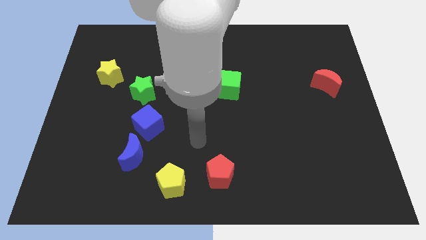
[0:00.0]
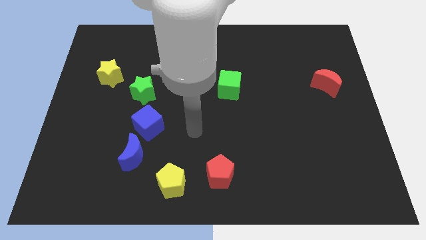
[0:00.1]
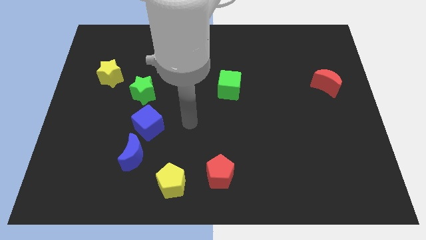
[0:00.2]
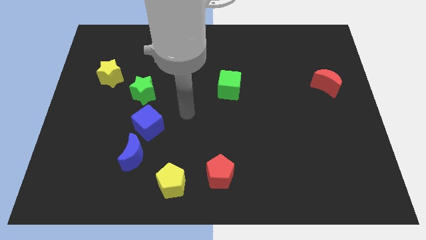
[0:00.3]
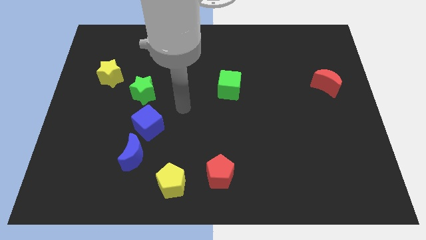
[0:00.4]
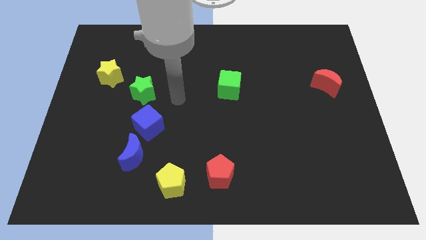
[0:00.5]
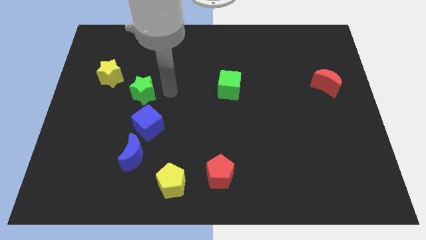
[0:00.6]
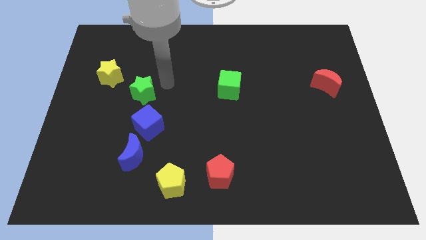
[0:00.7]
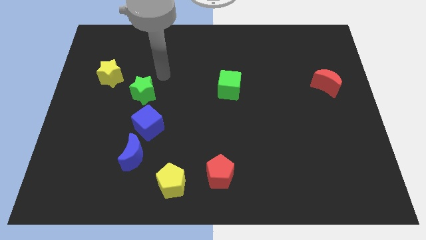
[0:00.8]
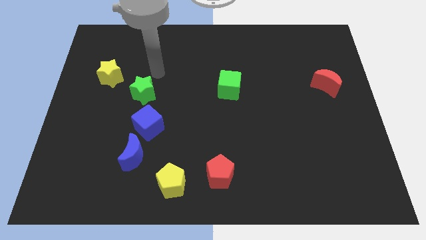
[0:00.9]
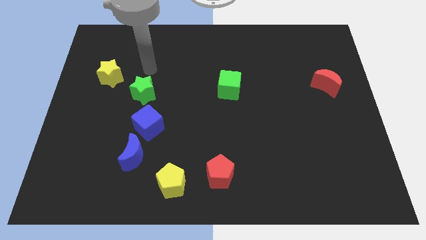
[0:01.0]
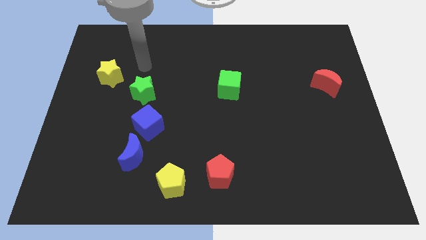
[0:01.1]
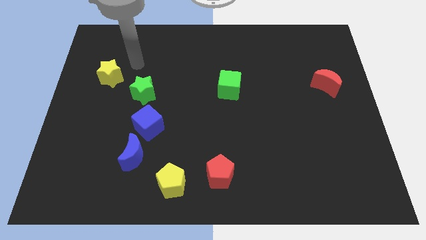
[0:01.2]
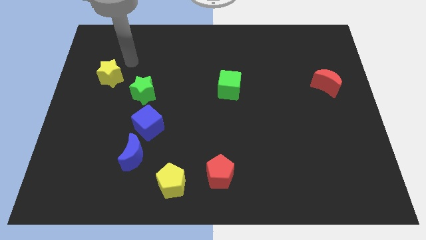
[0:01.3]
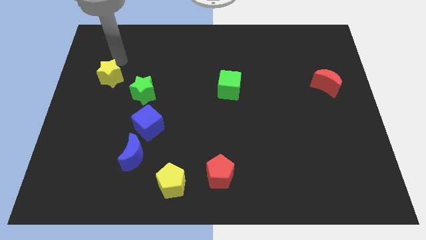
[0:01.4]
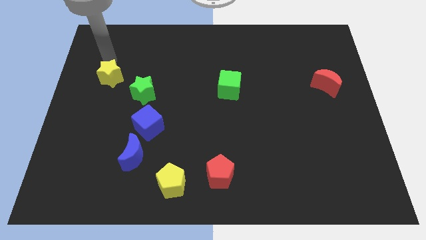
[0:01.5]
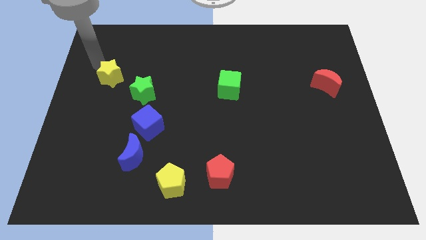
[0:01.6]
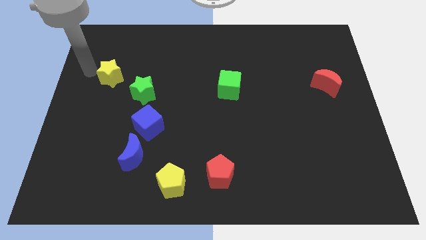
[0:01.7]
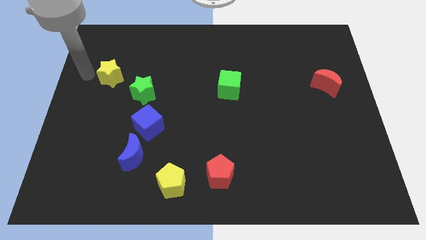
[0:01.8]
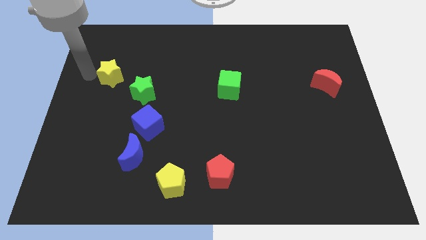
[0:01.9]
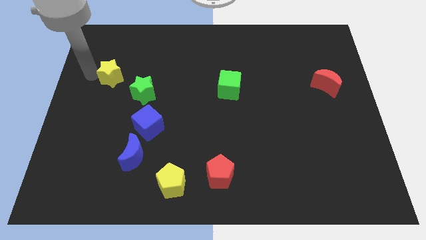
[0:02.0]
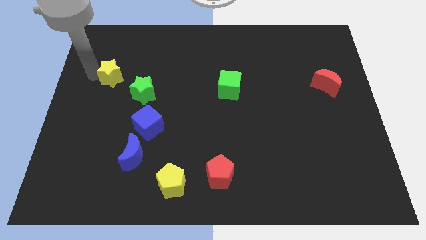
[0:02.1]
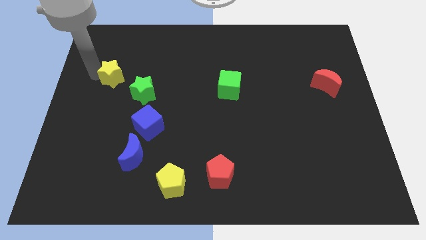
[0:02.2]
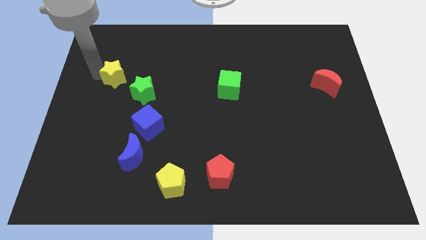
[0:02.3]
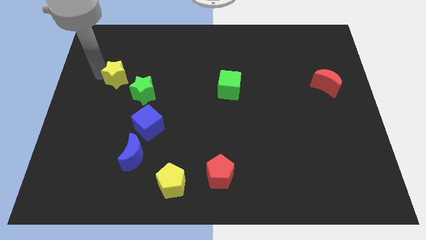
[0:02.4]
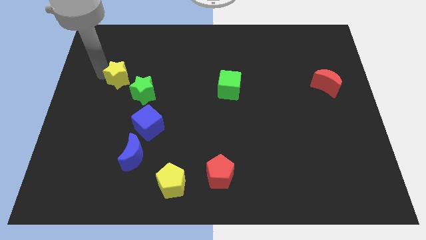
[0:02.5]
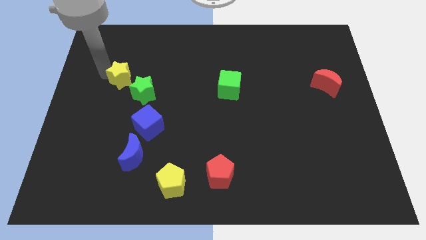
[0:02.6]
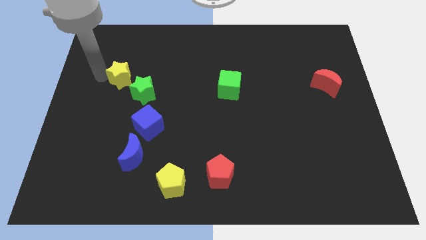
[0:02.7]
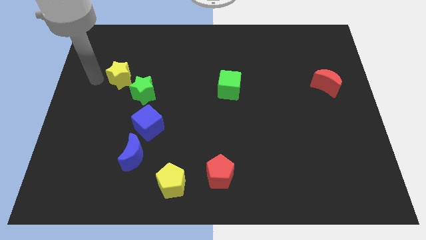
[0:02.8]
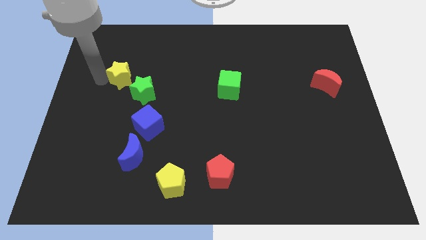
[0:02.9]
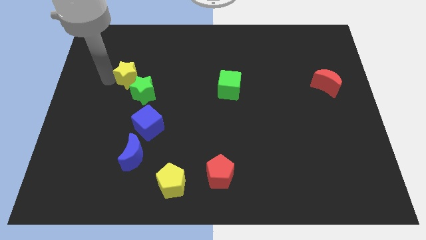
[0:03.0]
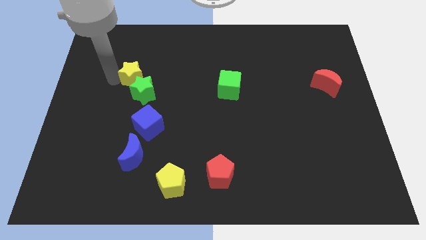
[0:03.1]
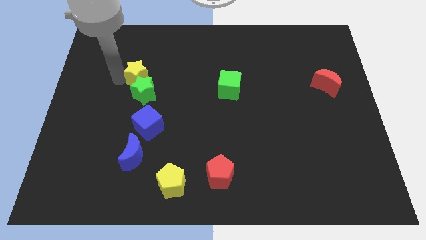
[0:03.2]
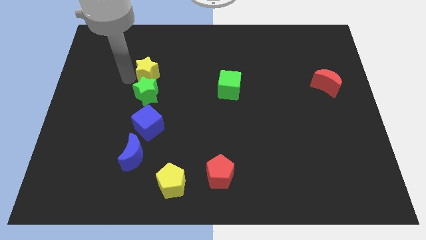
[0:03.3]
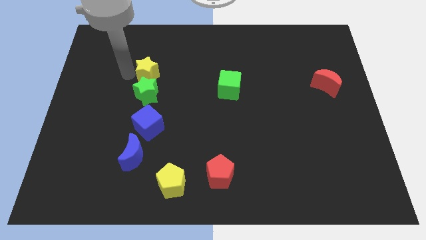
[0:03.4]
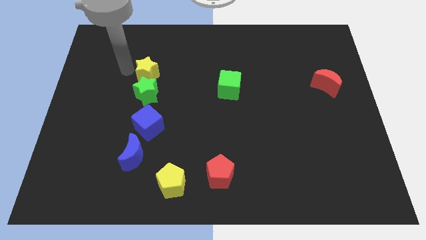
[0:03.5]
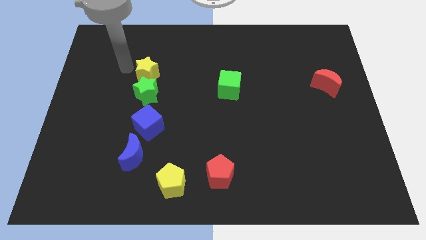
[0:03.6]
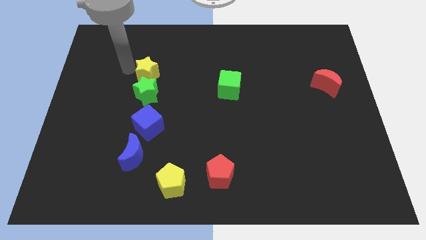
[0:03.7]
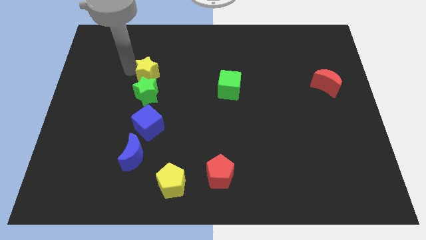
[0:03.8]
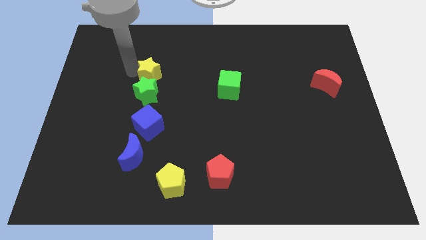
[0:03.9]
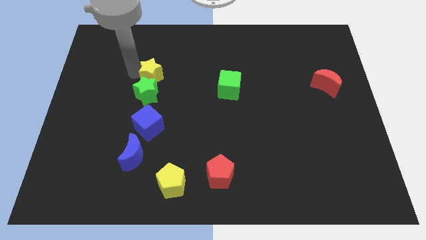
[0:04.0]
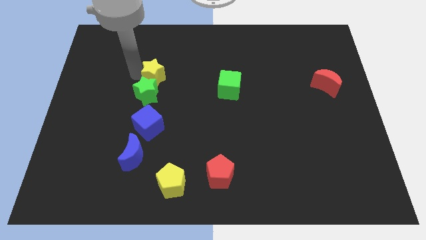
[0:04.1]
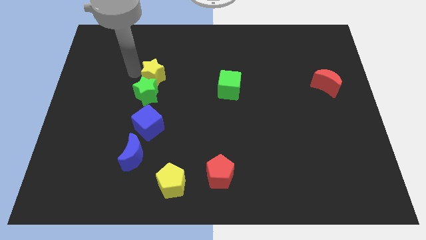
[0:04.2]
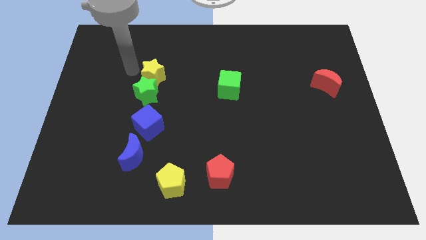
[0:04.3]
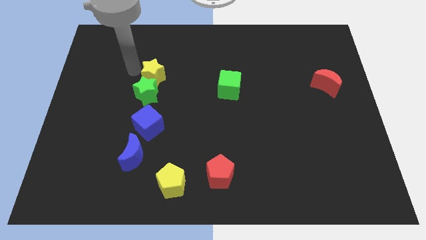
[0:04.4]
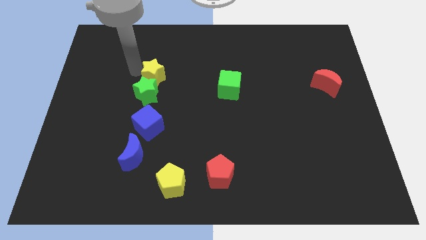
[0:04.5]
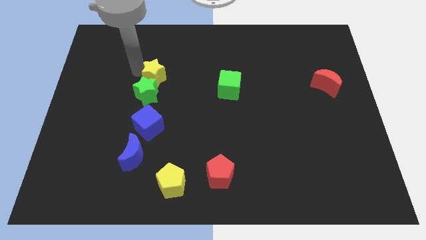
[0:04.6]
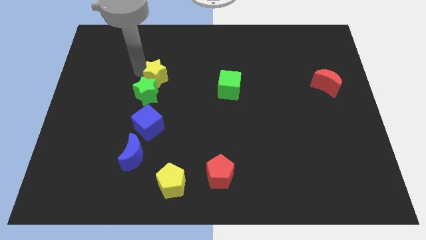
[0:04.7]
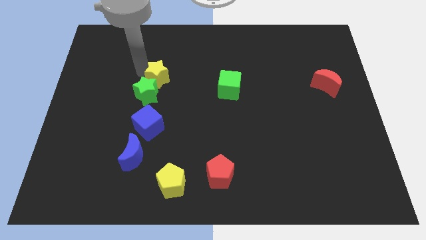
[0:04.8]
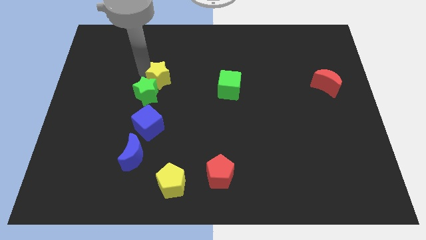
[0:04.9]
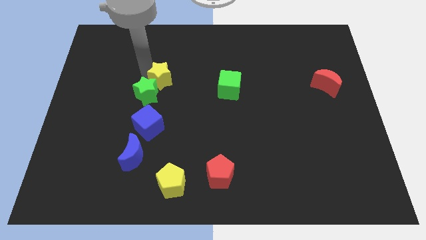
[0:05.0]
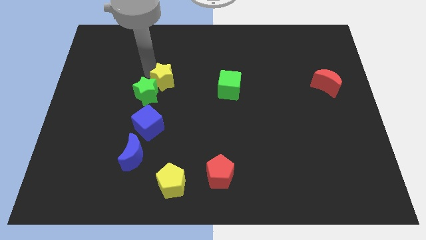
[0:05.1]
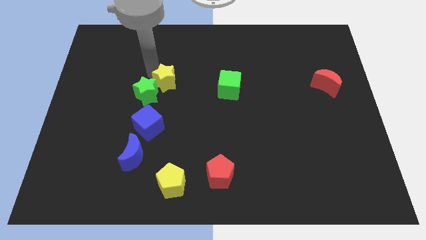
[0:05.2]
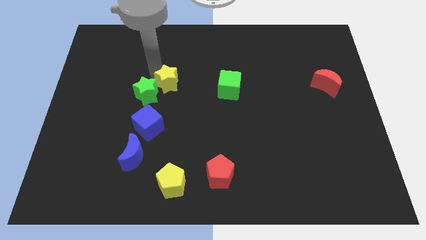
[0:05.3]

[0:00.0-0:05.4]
move the yellow star to the center of the board
